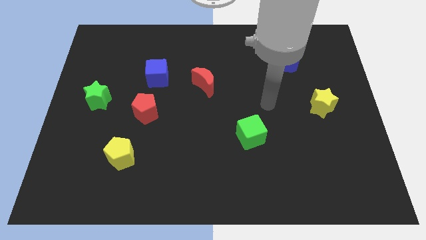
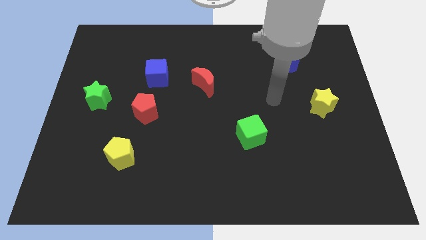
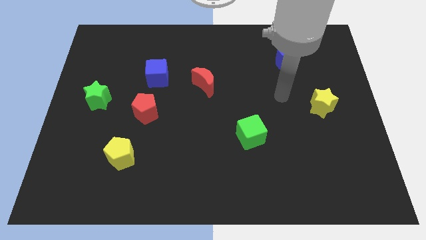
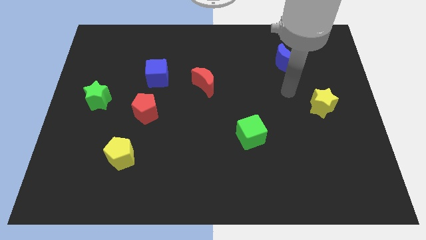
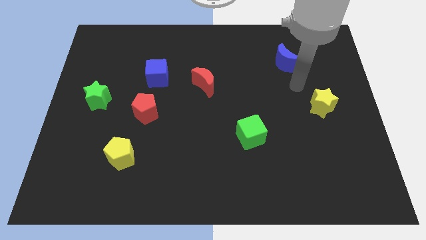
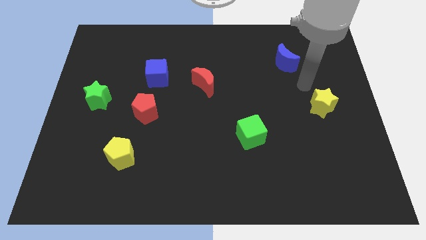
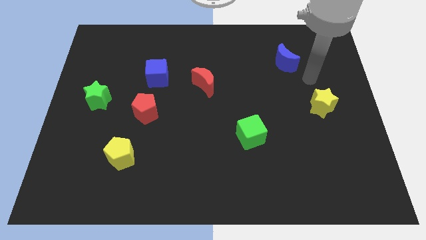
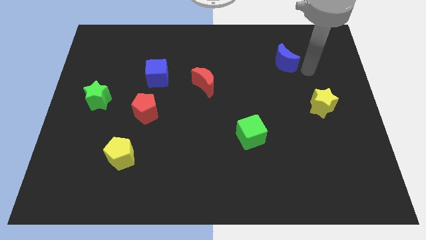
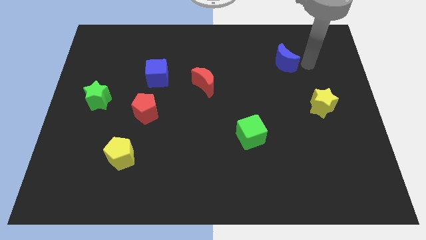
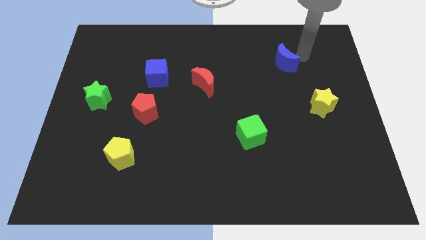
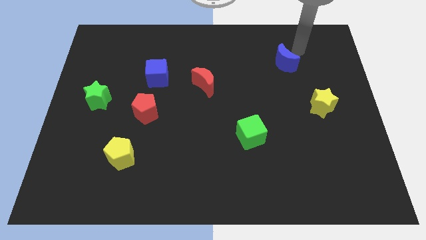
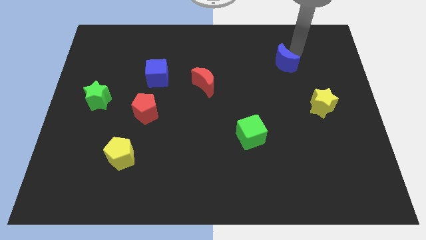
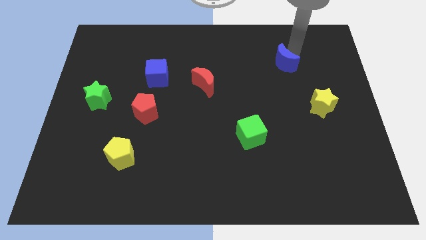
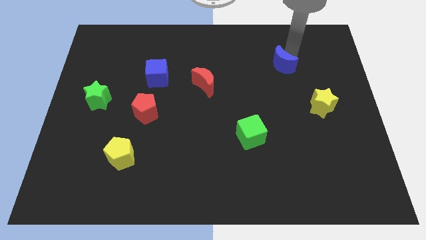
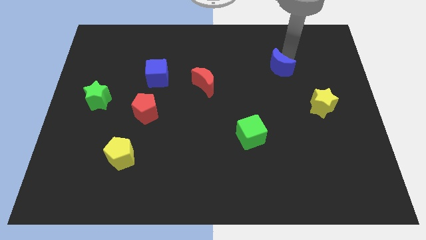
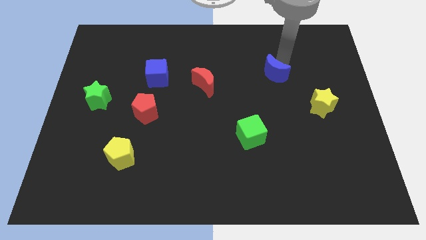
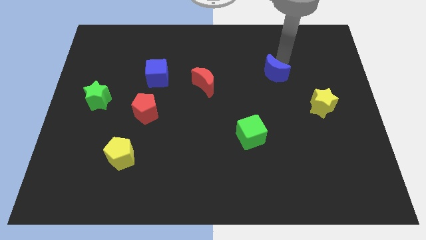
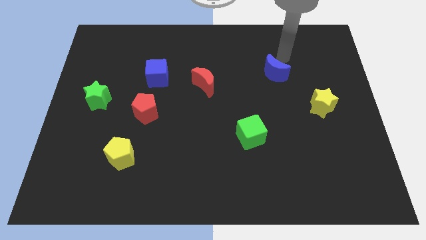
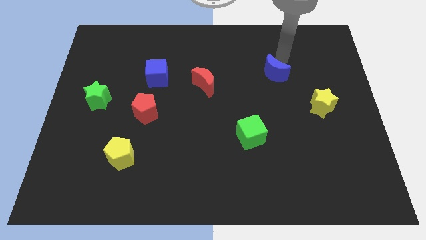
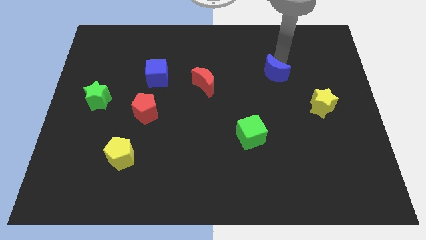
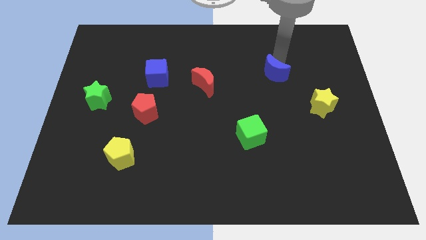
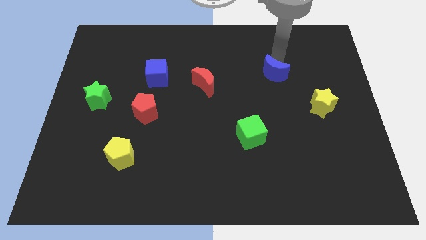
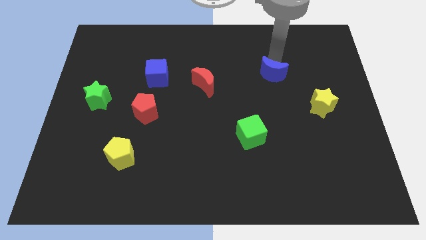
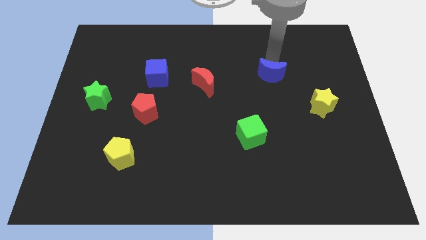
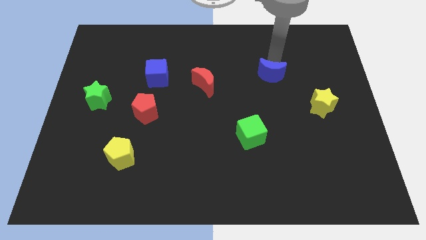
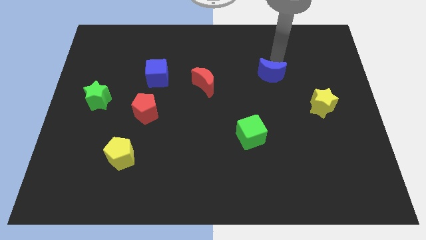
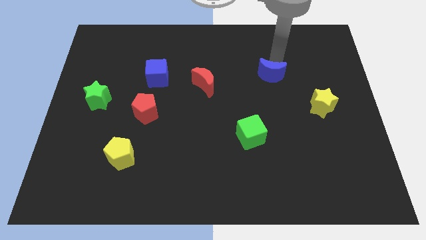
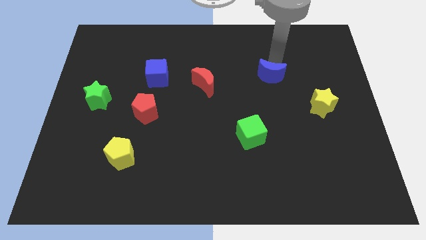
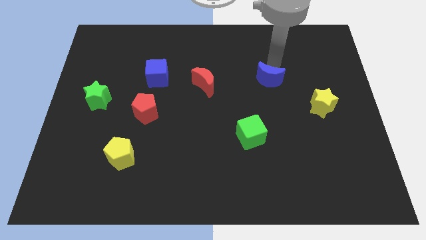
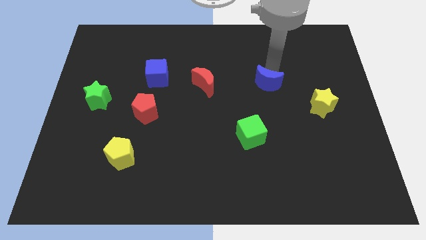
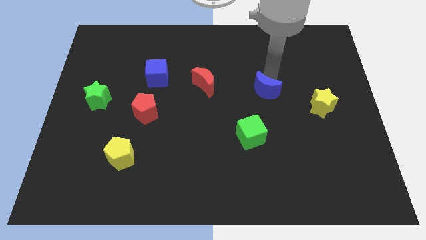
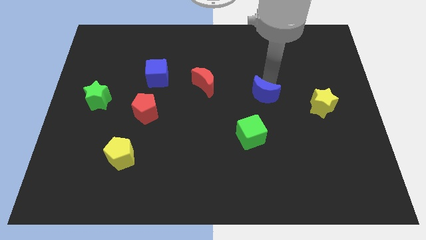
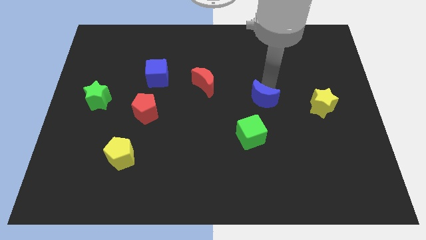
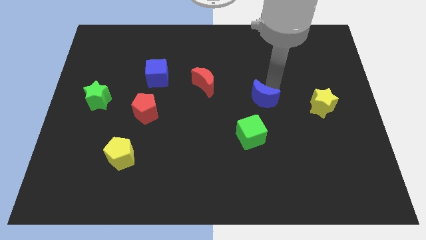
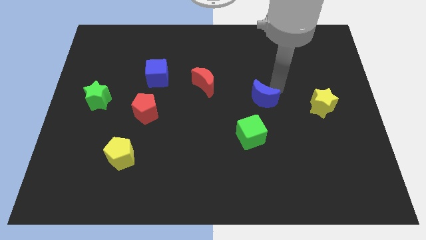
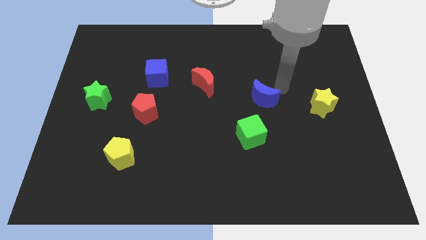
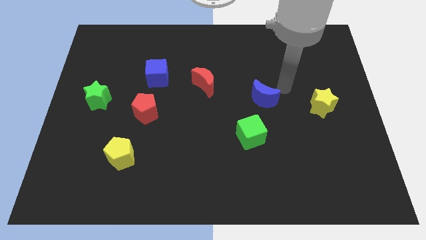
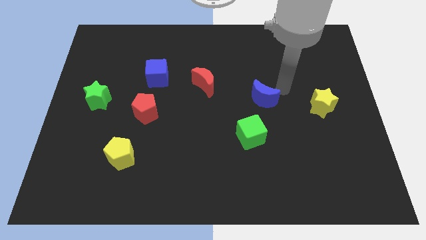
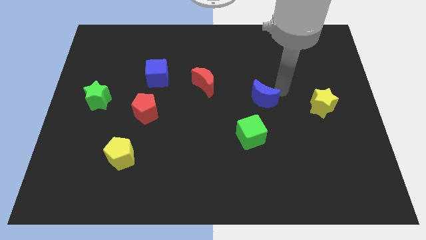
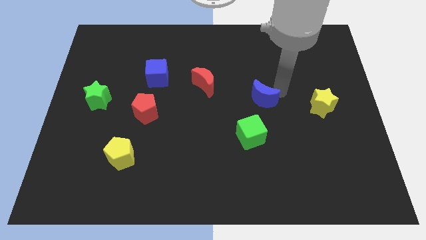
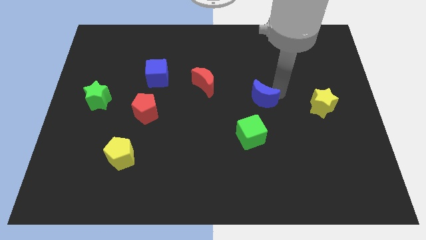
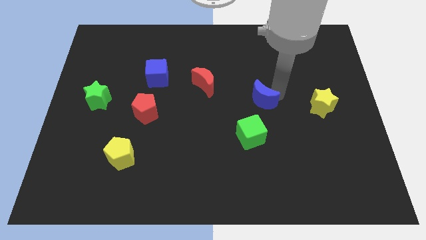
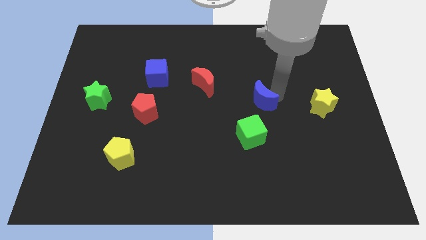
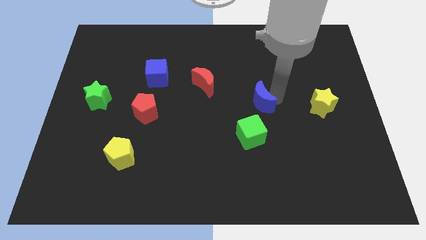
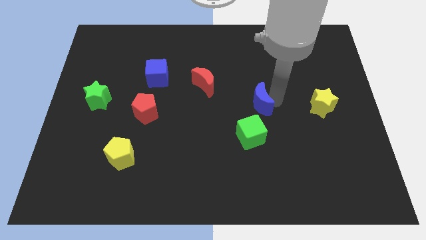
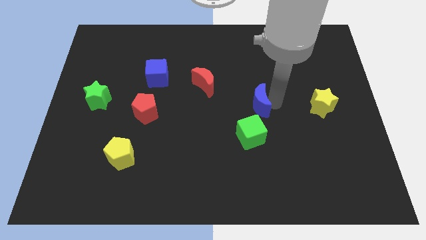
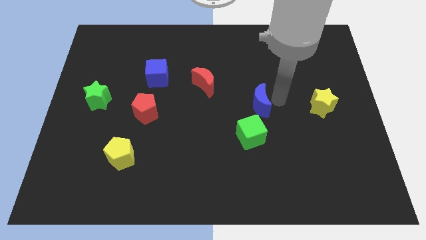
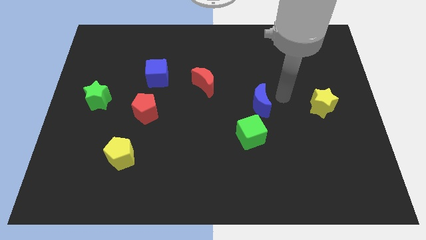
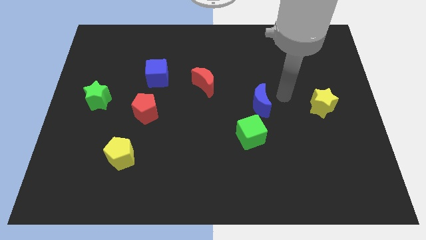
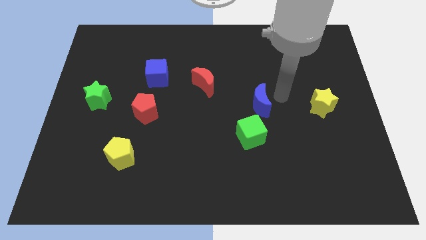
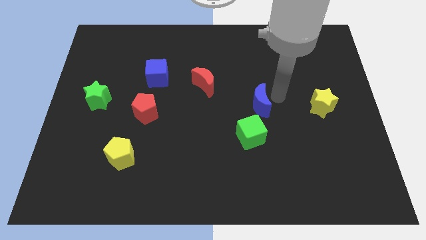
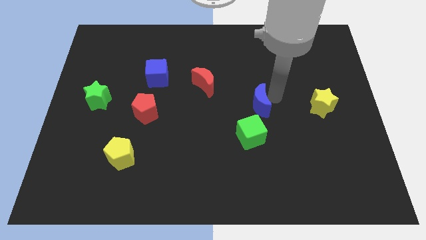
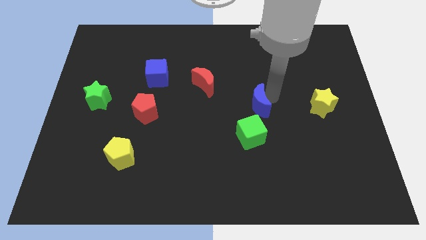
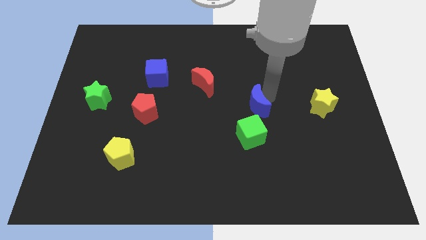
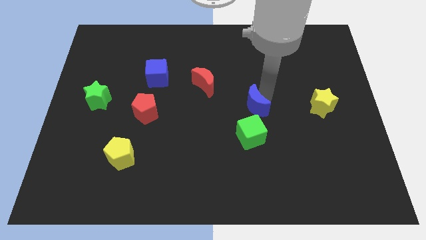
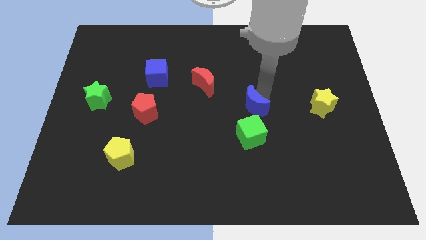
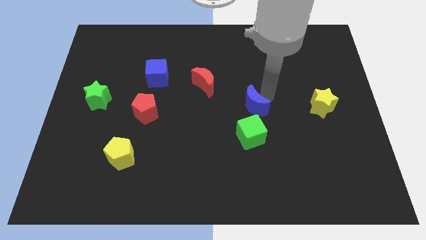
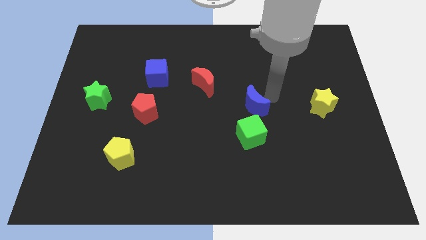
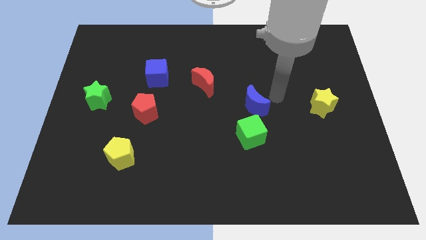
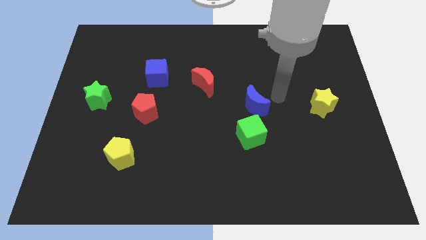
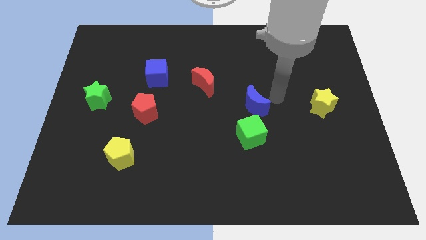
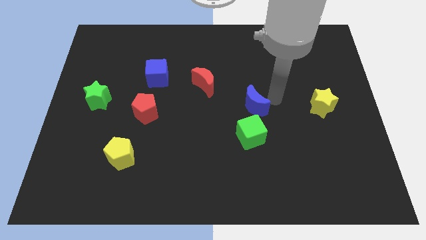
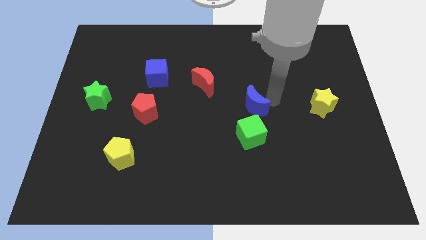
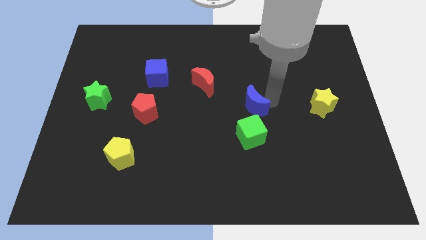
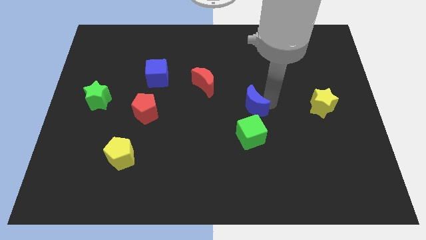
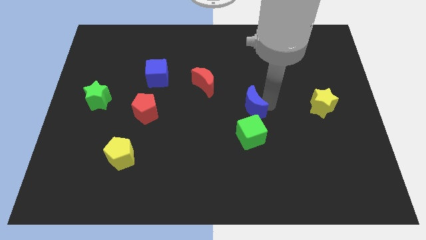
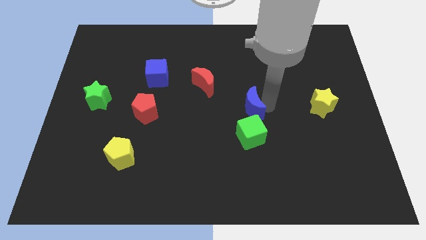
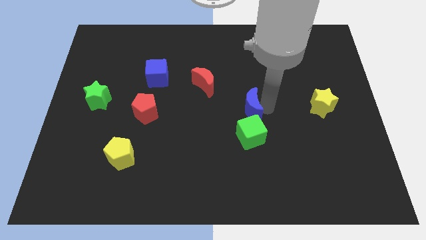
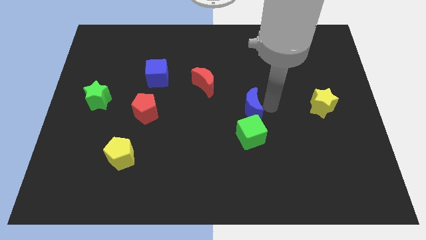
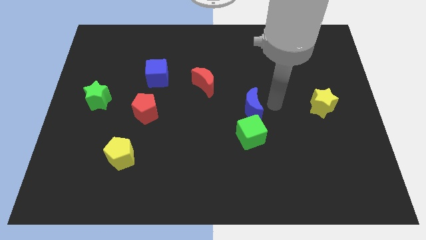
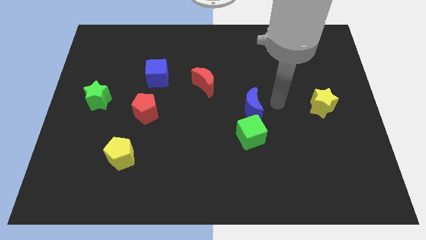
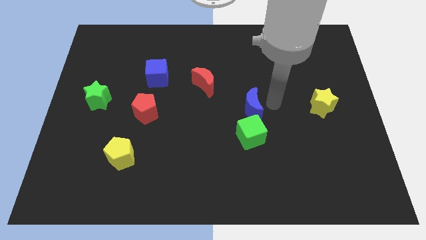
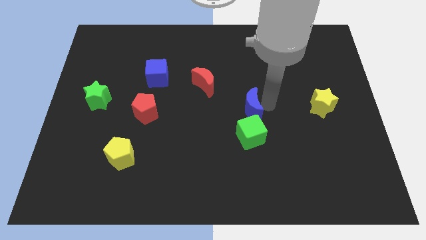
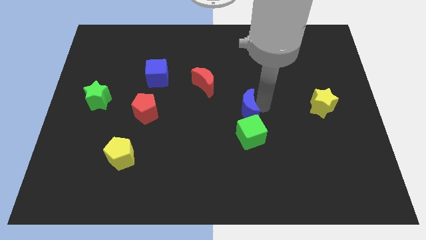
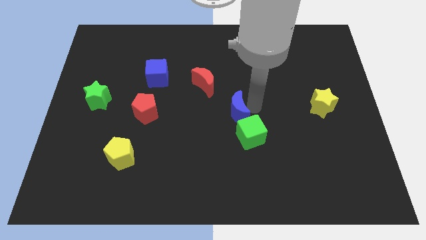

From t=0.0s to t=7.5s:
slide the blue moon downwards and to the left diagonally
